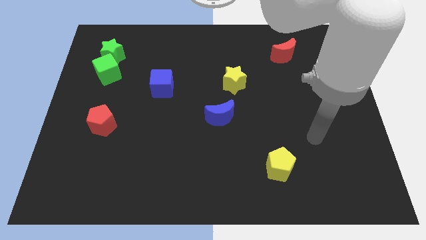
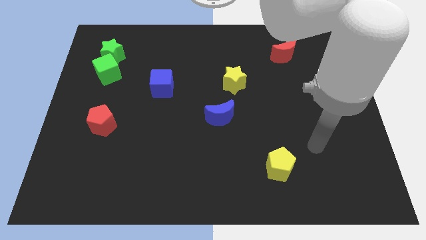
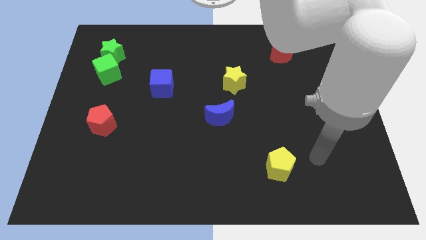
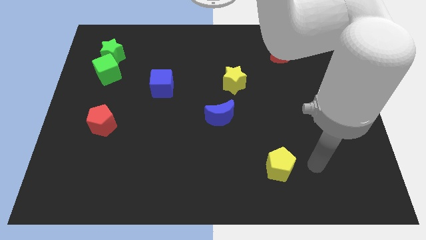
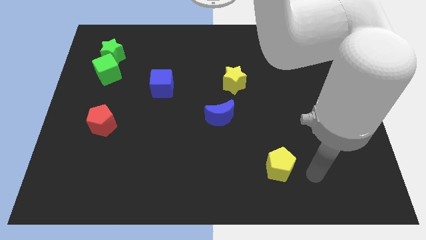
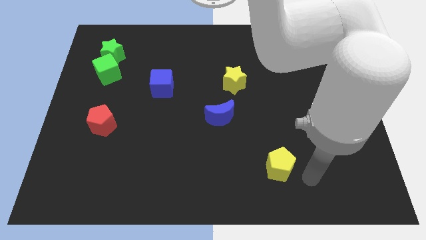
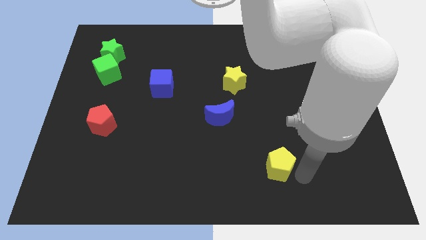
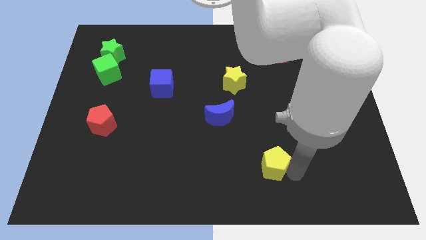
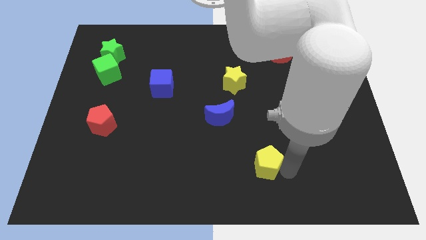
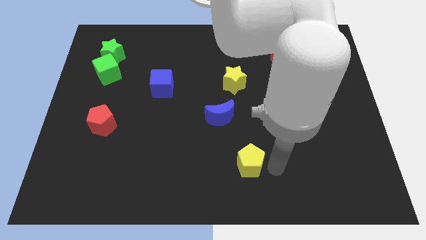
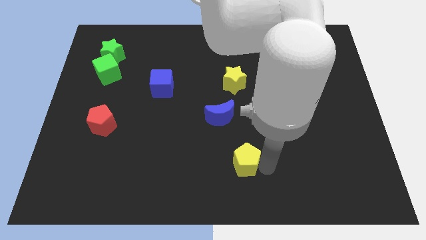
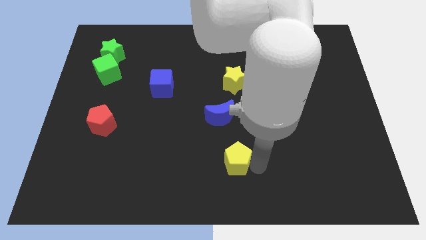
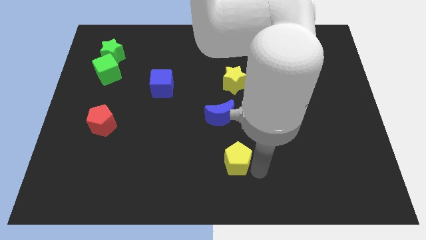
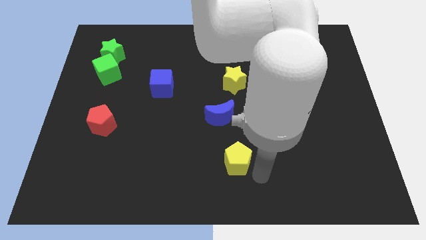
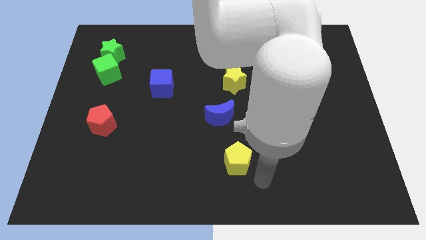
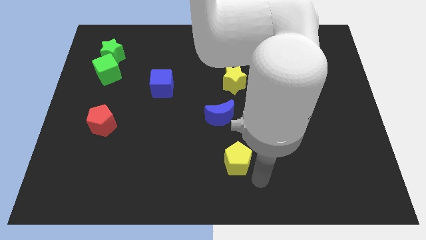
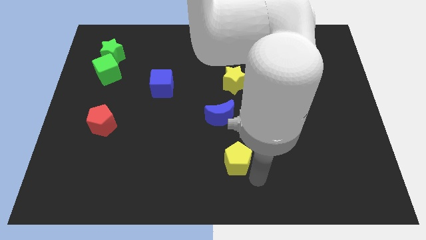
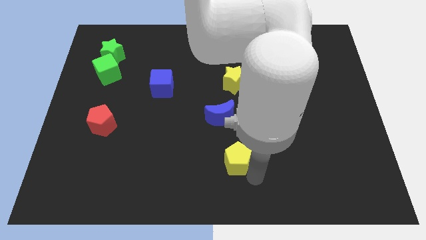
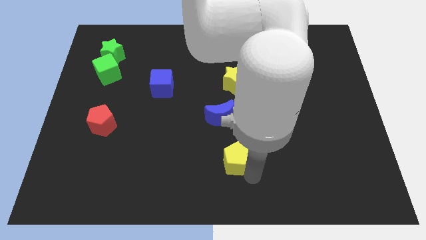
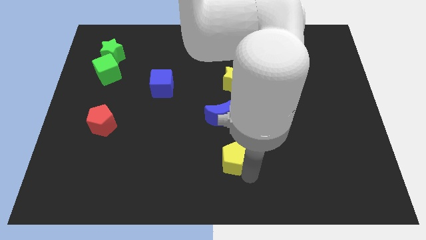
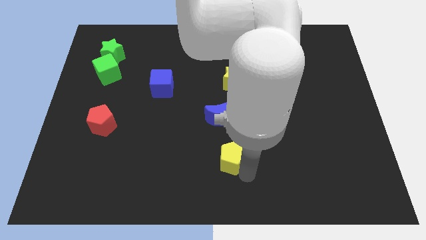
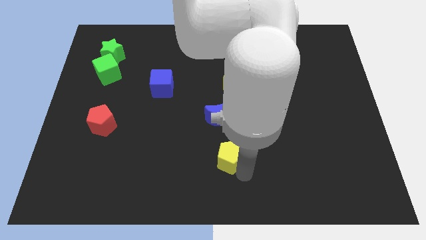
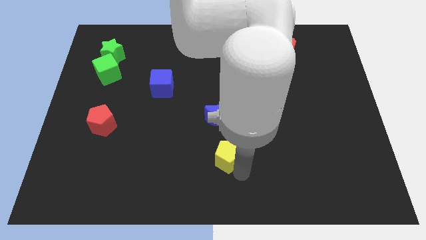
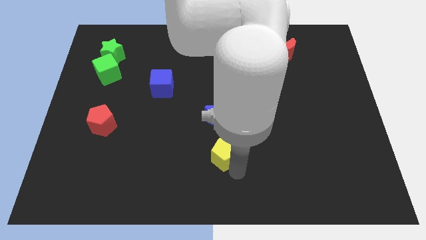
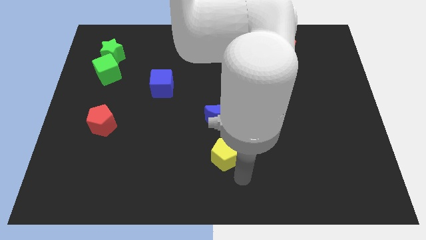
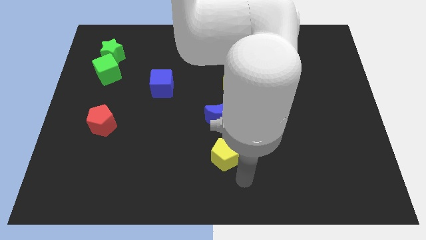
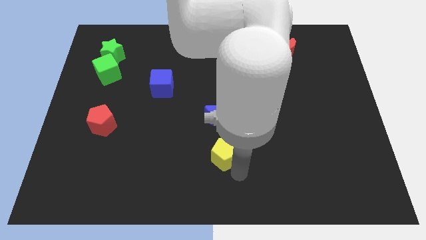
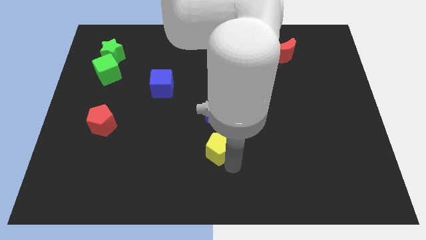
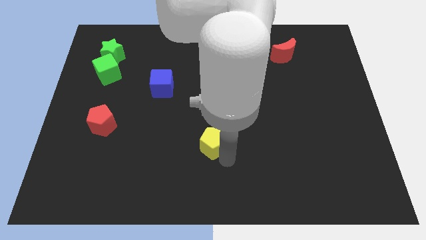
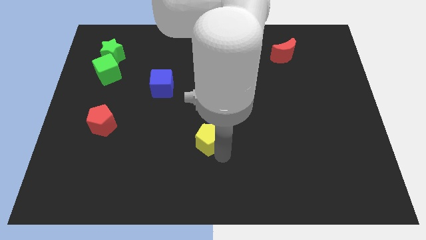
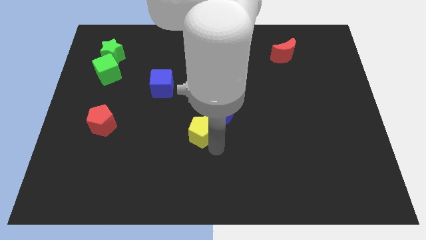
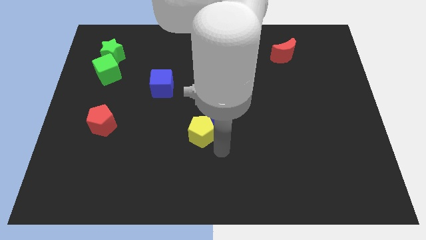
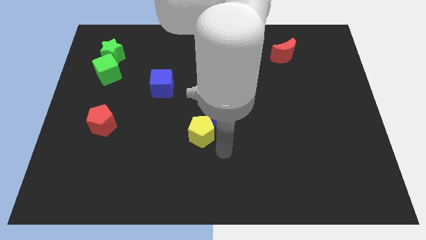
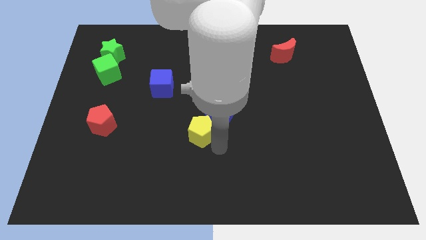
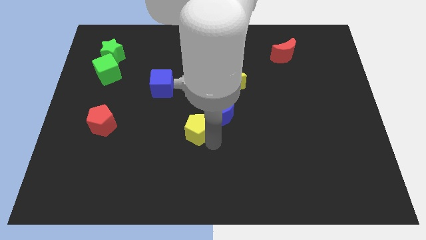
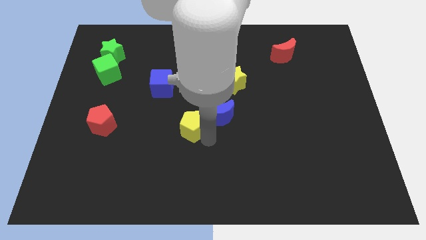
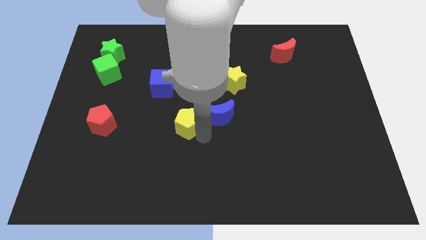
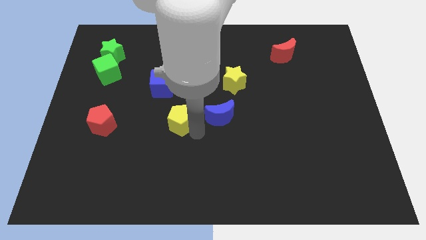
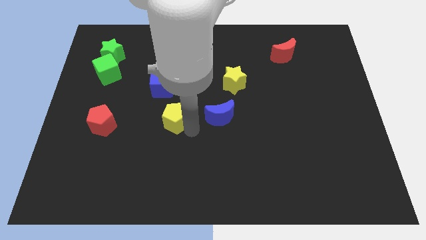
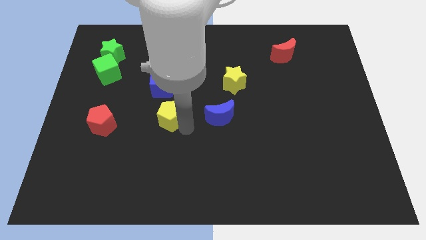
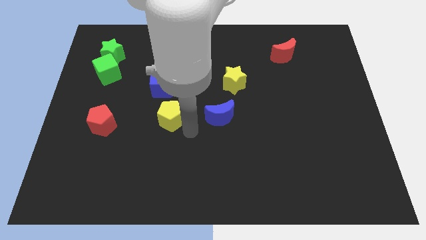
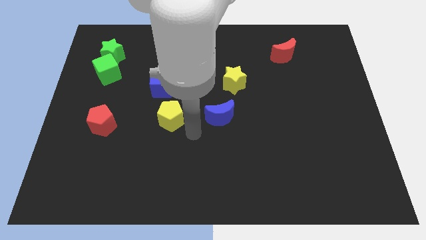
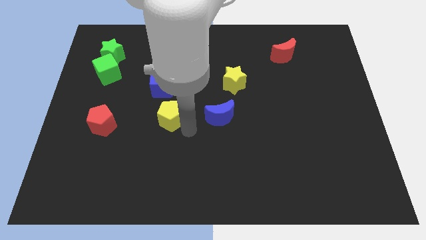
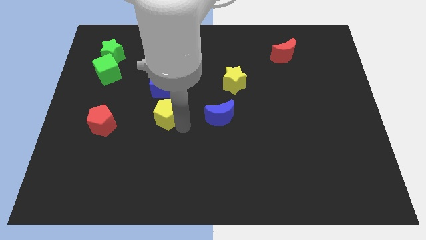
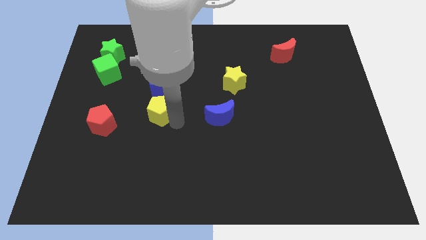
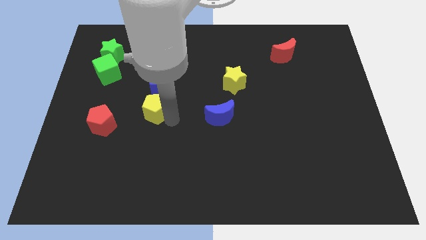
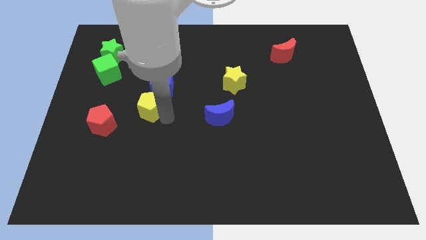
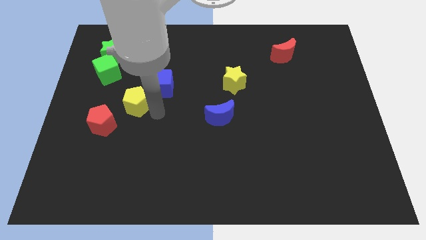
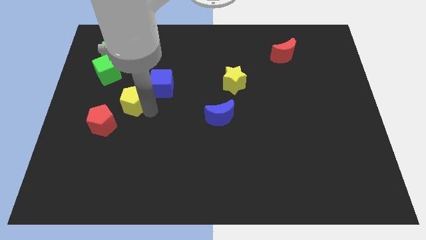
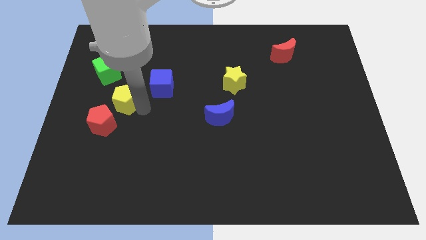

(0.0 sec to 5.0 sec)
push the yellow pentagon to the left side of the blue cube

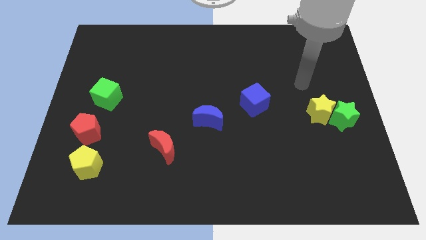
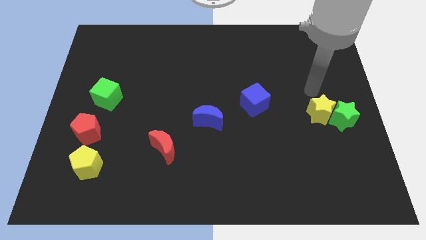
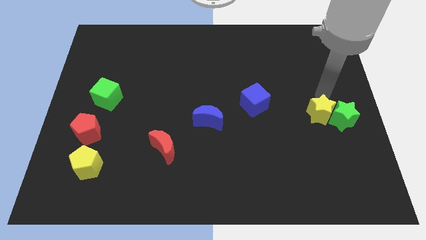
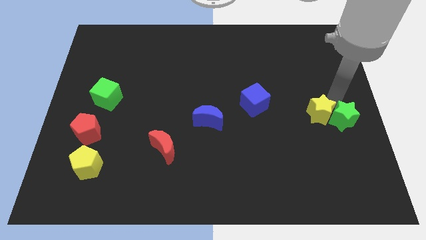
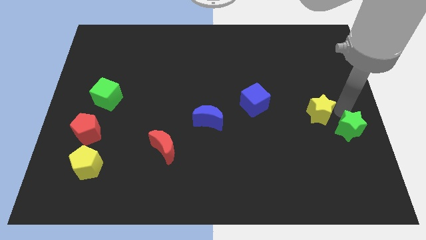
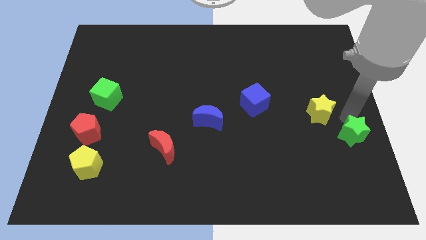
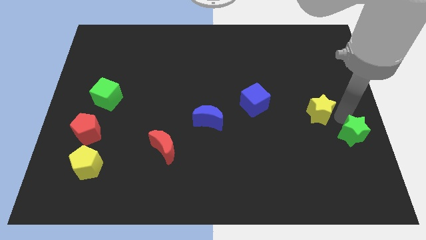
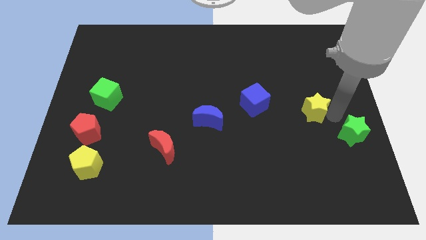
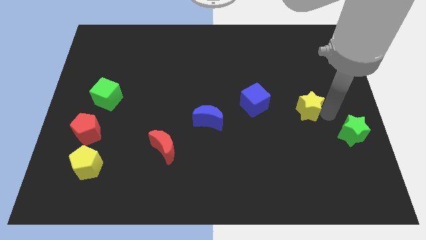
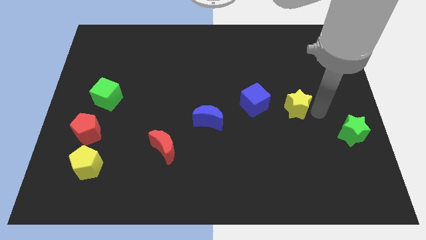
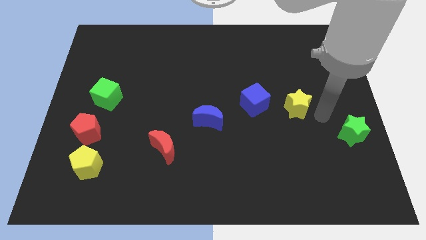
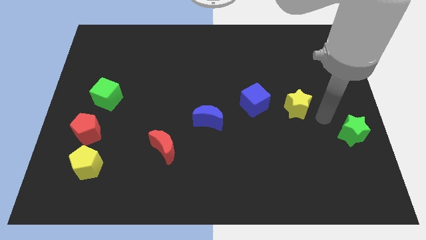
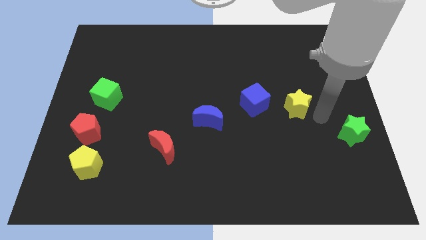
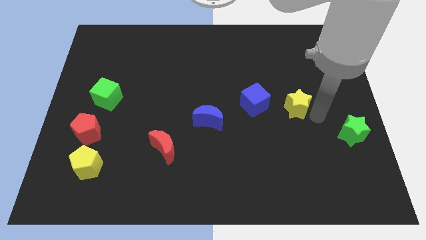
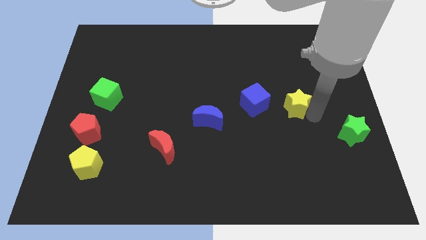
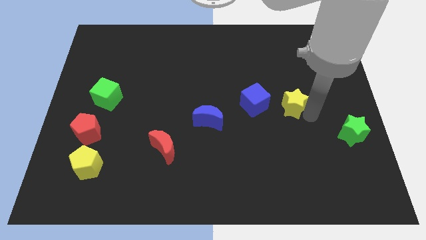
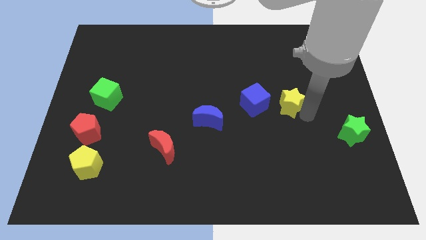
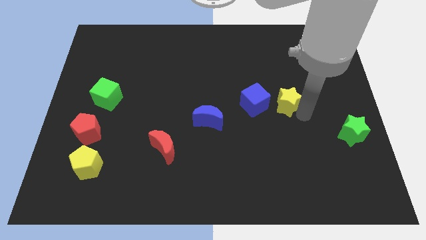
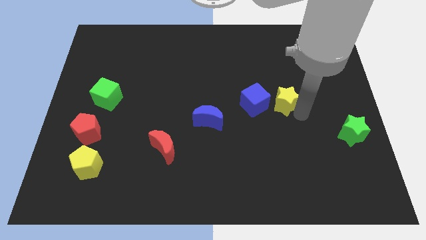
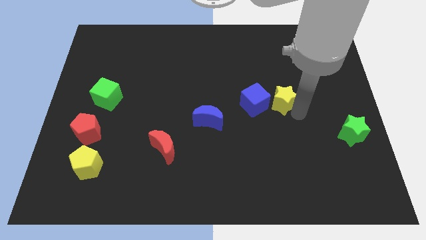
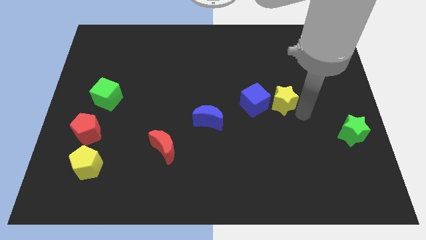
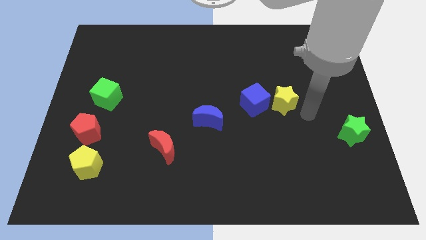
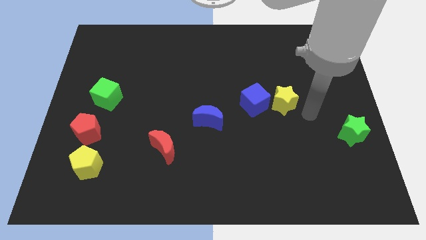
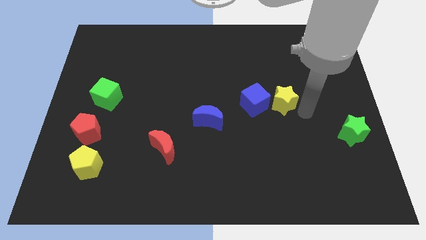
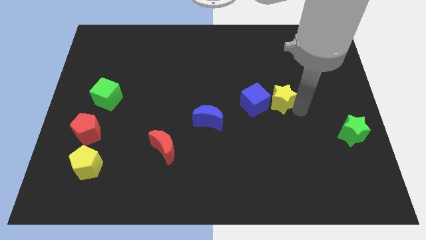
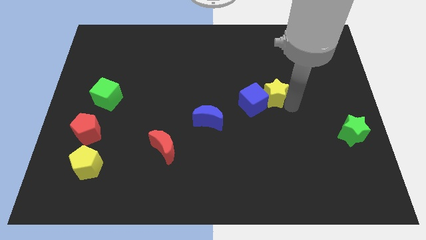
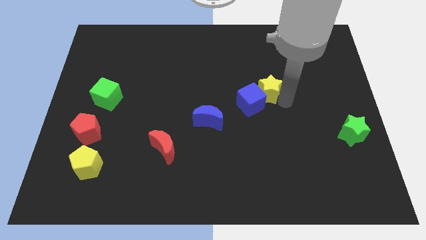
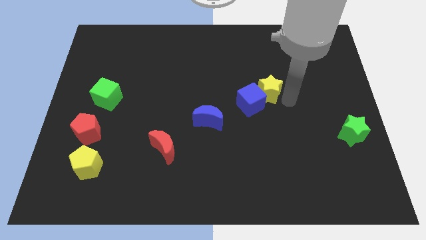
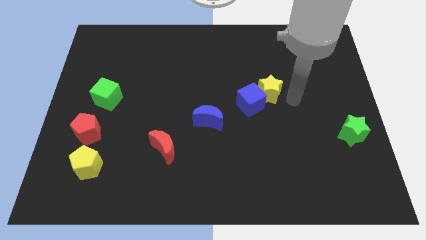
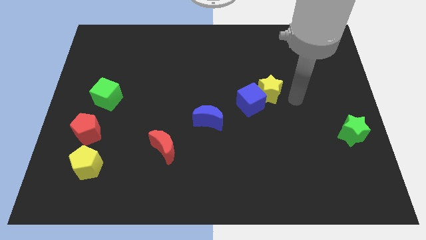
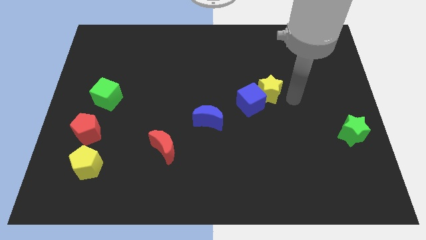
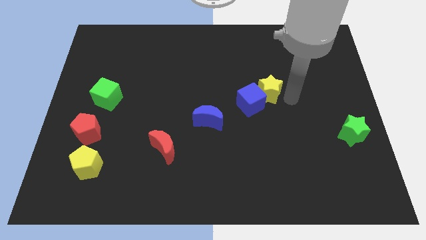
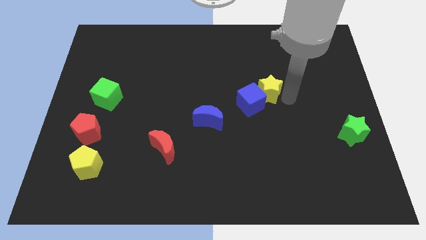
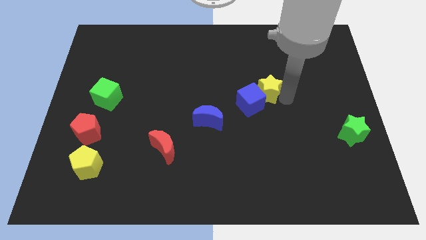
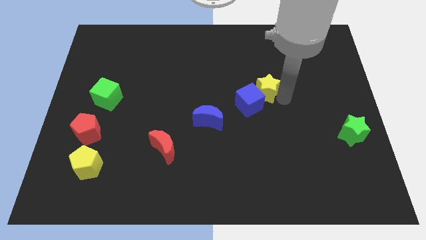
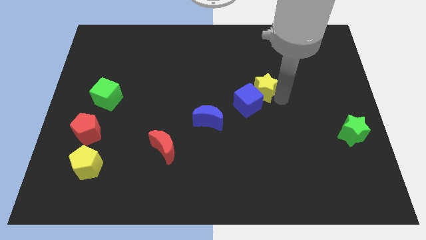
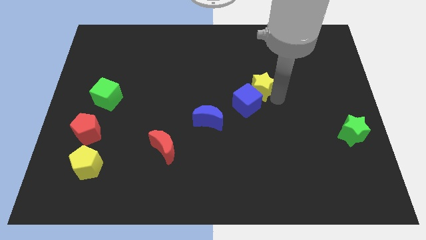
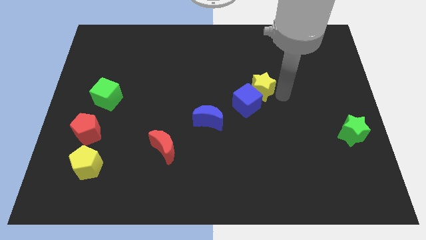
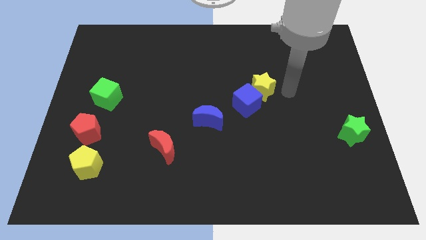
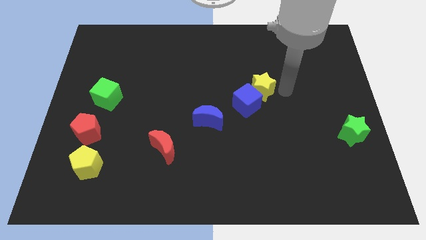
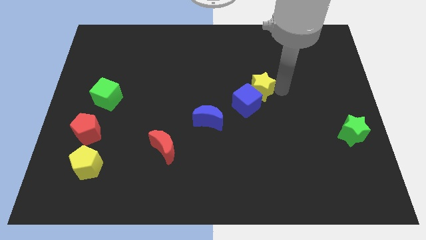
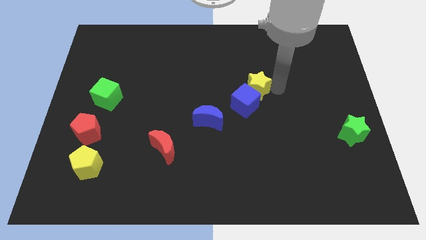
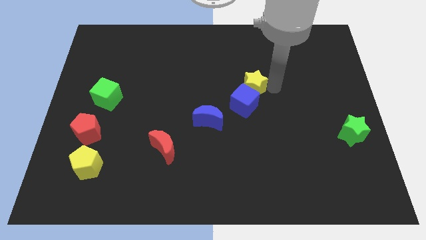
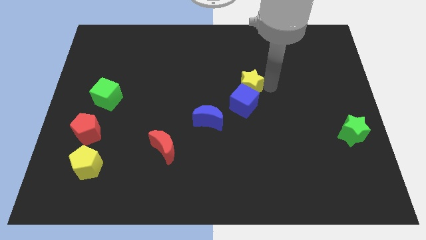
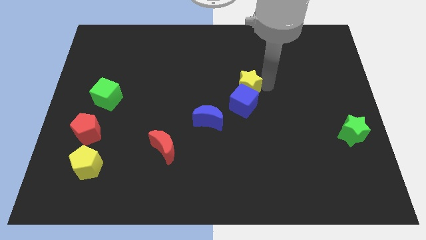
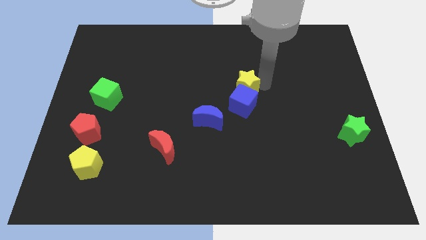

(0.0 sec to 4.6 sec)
move the yellow star diagonally up and to the left of the blue cube
